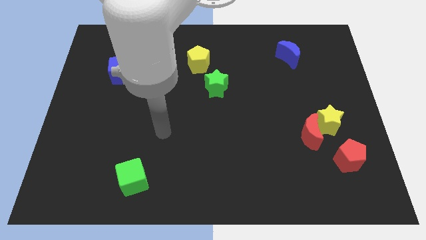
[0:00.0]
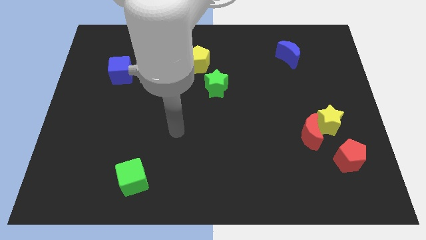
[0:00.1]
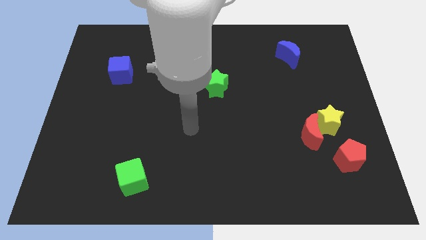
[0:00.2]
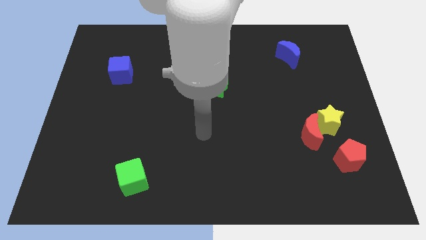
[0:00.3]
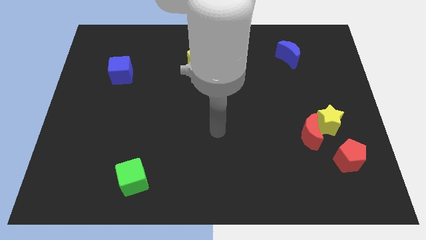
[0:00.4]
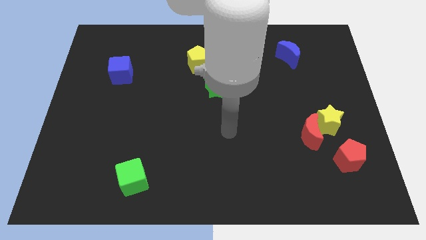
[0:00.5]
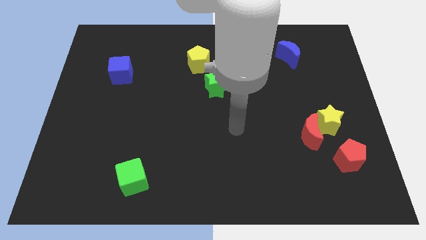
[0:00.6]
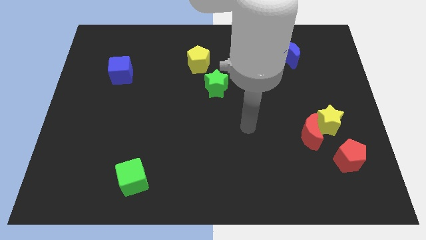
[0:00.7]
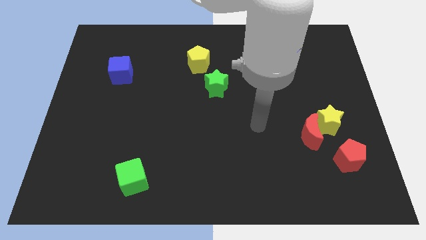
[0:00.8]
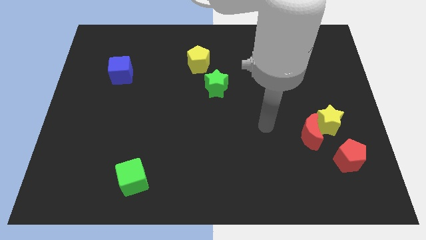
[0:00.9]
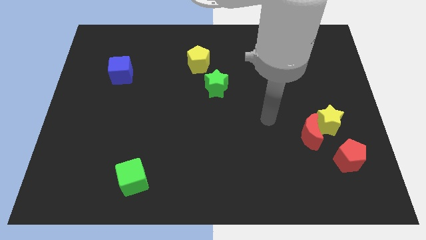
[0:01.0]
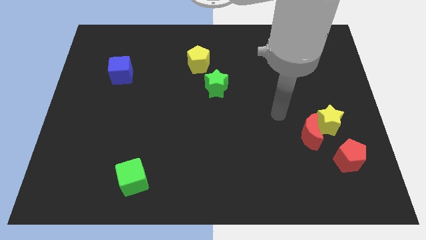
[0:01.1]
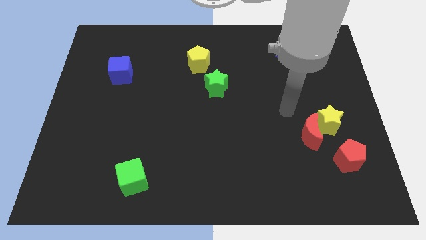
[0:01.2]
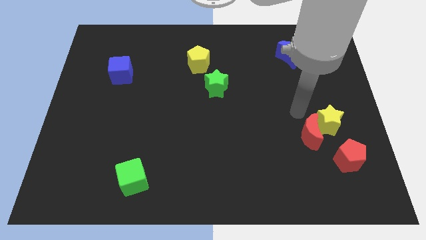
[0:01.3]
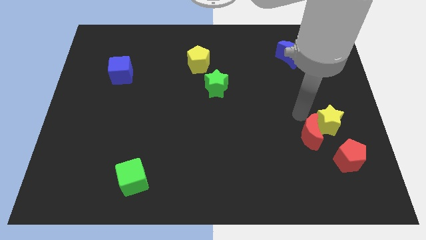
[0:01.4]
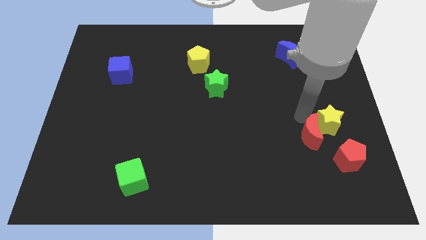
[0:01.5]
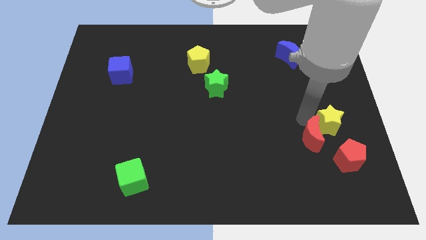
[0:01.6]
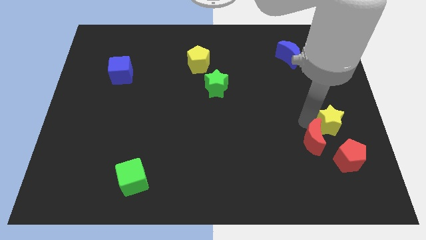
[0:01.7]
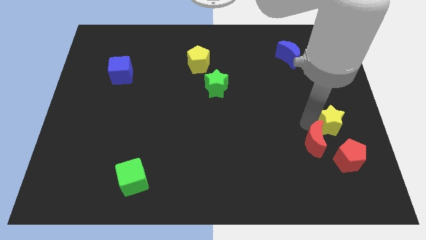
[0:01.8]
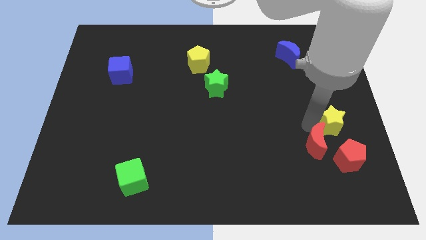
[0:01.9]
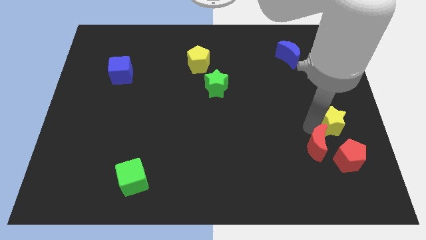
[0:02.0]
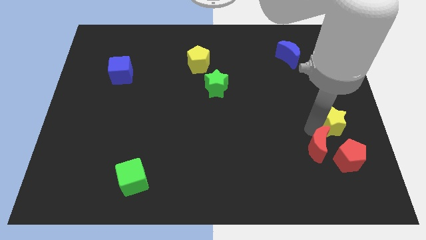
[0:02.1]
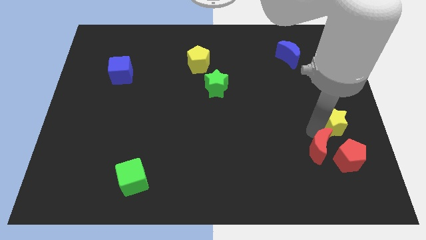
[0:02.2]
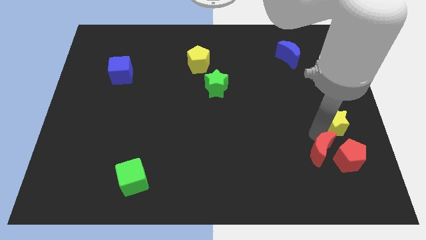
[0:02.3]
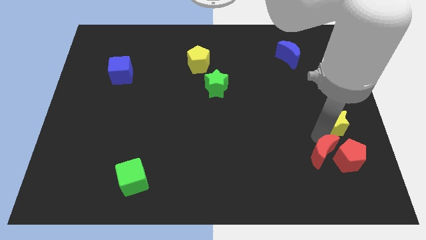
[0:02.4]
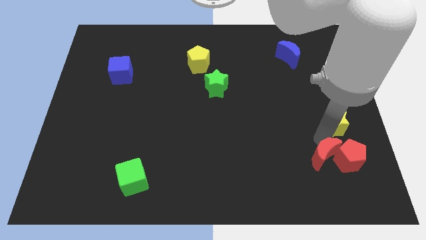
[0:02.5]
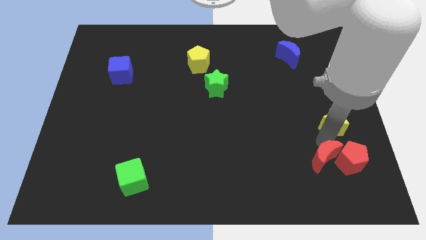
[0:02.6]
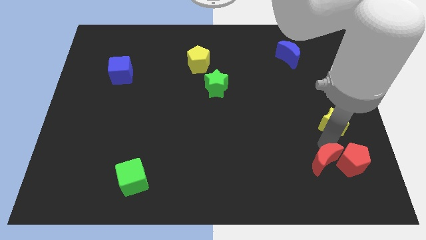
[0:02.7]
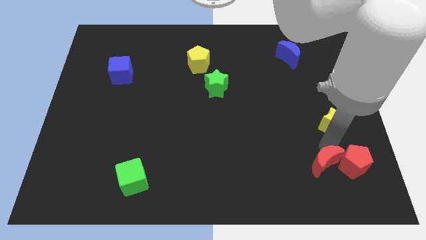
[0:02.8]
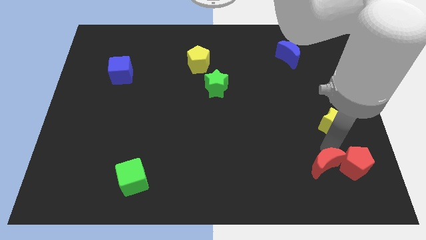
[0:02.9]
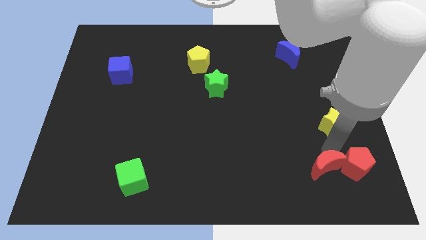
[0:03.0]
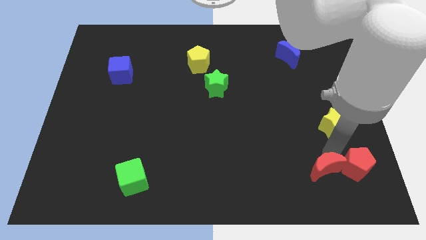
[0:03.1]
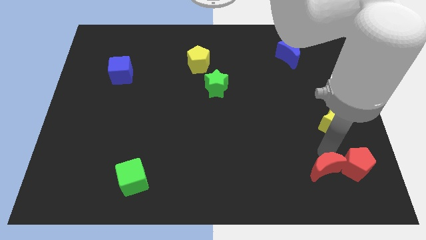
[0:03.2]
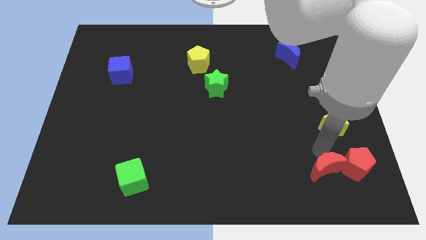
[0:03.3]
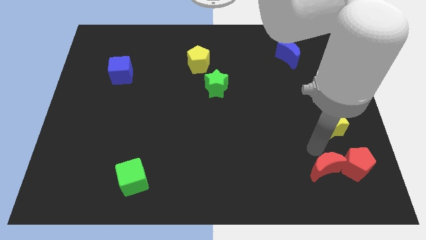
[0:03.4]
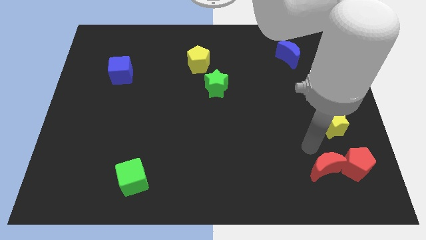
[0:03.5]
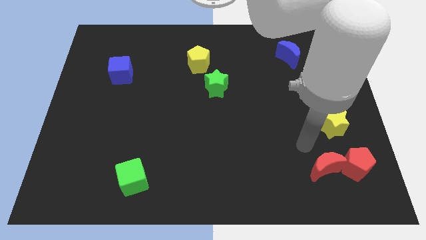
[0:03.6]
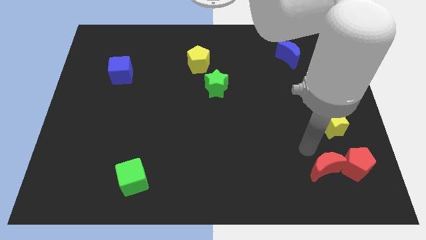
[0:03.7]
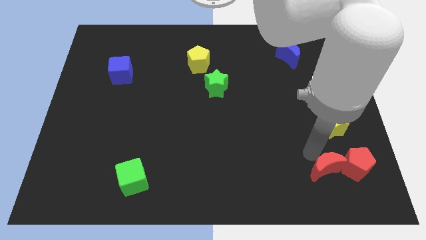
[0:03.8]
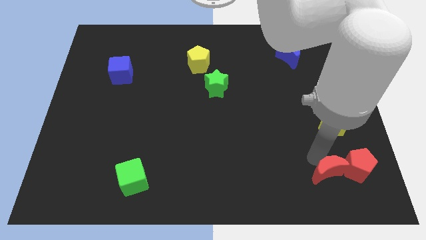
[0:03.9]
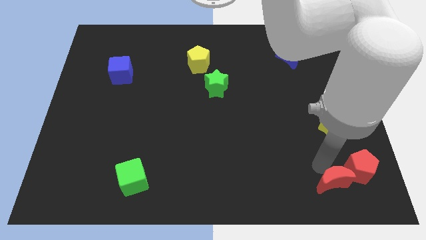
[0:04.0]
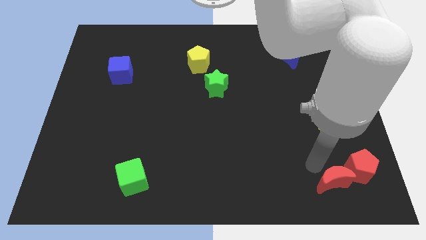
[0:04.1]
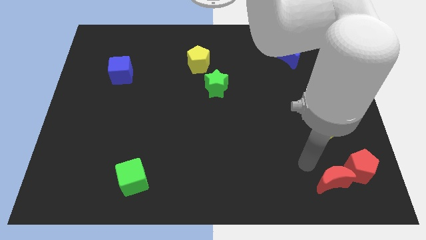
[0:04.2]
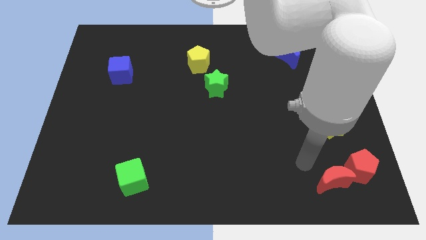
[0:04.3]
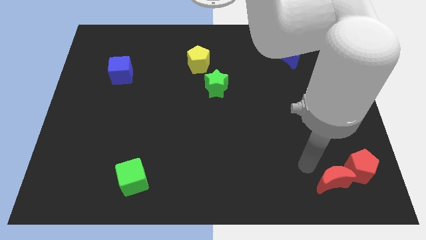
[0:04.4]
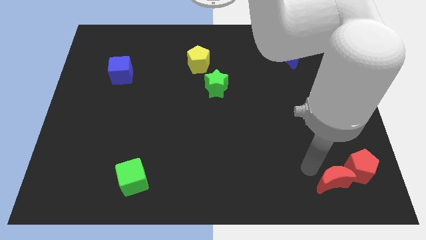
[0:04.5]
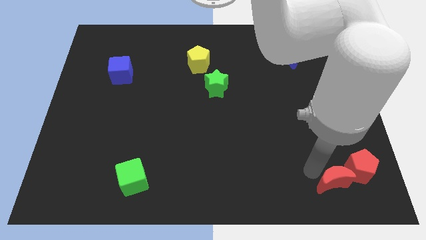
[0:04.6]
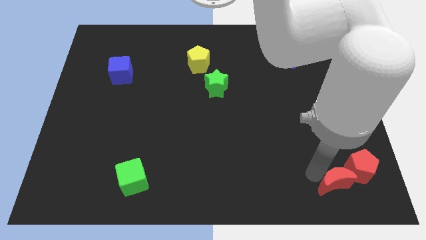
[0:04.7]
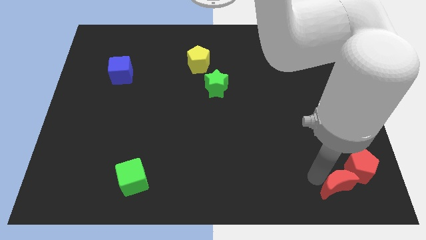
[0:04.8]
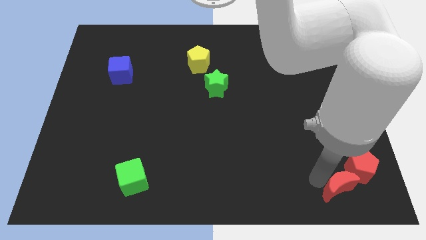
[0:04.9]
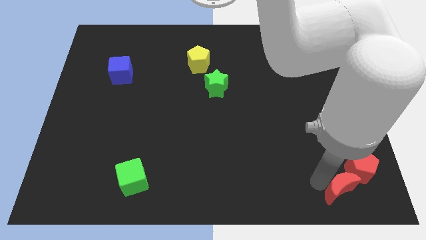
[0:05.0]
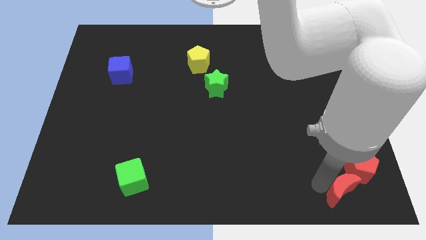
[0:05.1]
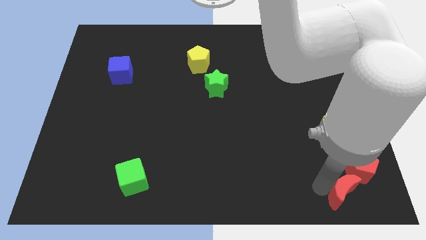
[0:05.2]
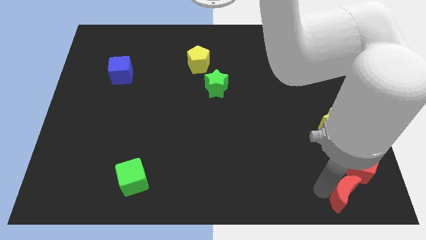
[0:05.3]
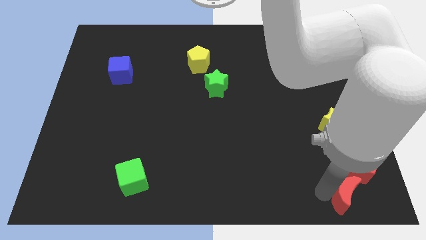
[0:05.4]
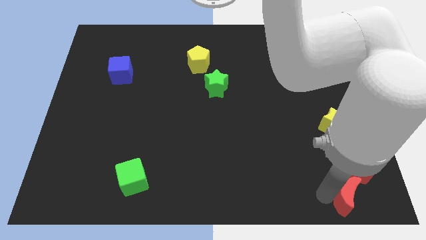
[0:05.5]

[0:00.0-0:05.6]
slide the red moon to the bottom right corner

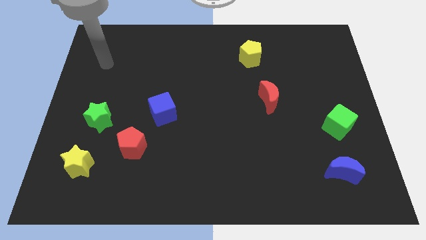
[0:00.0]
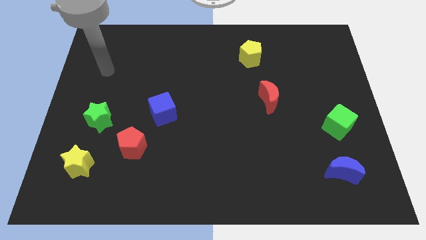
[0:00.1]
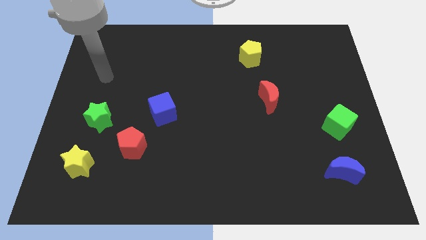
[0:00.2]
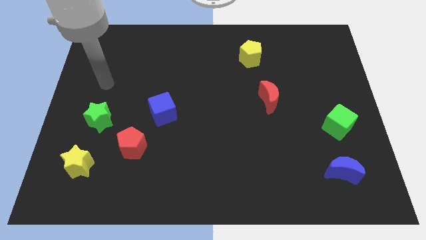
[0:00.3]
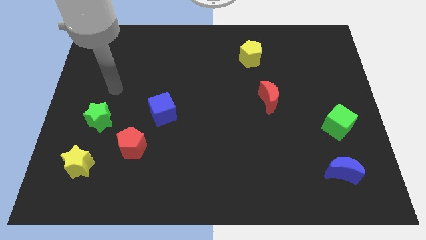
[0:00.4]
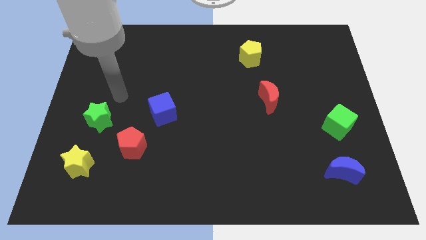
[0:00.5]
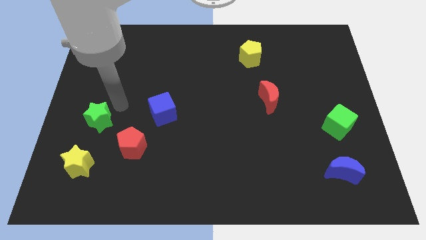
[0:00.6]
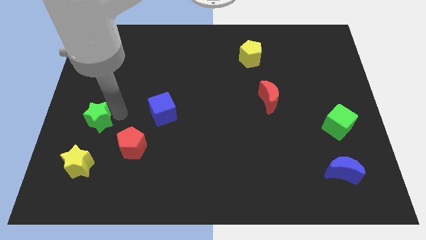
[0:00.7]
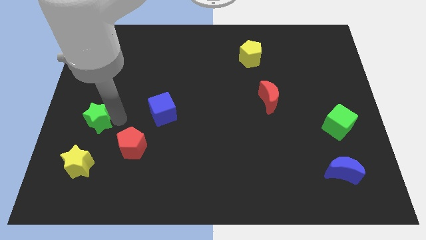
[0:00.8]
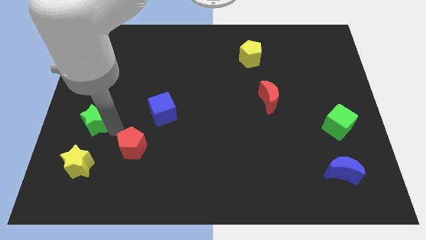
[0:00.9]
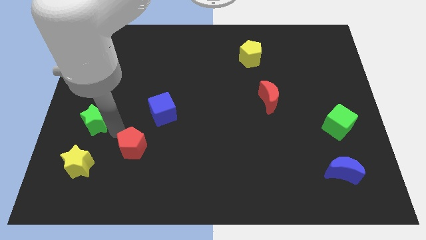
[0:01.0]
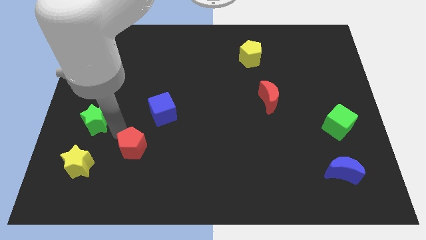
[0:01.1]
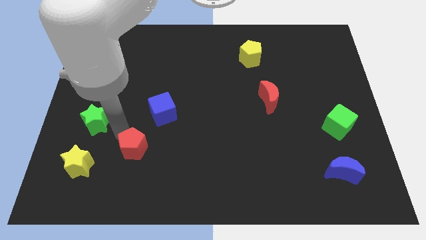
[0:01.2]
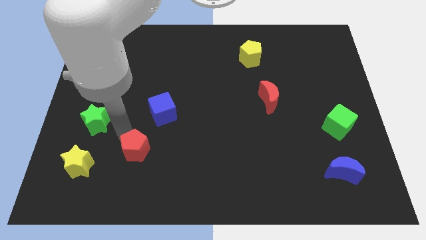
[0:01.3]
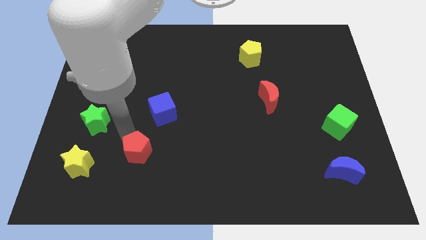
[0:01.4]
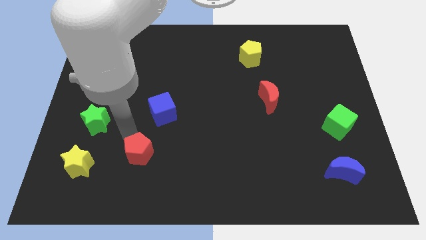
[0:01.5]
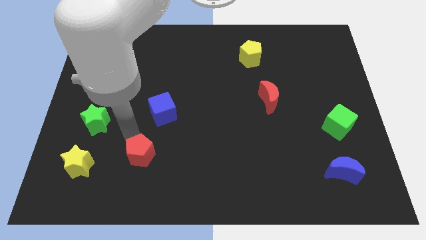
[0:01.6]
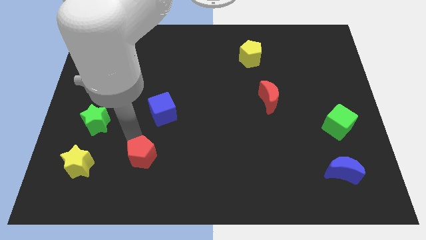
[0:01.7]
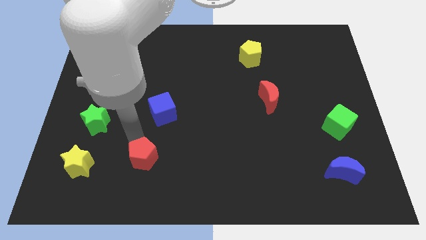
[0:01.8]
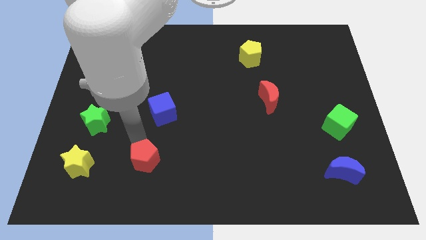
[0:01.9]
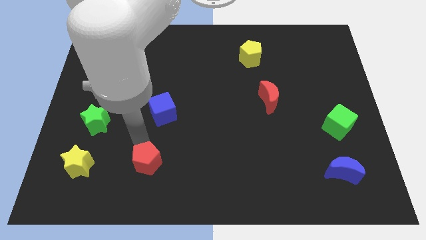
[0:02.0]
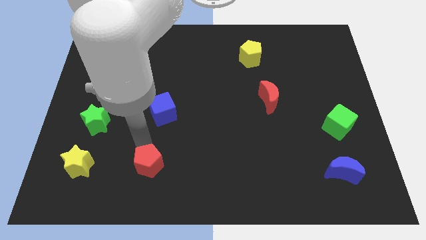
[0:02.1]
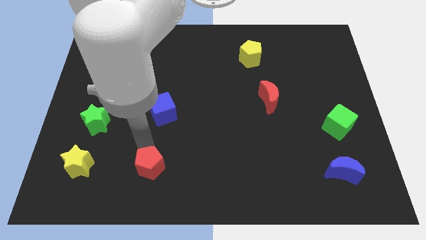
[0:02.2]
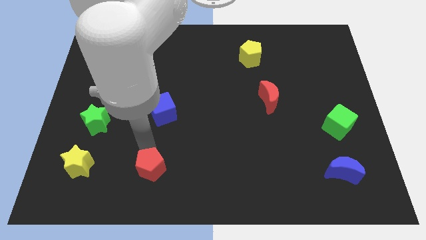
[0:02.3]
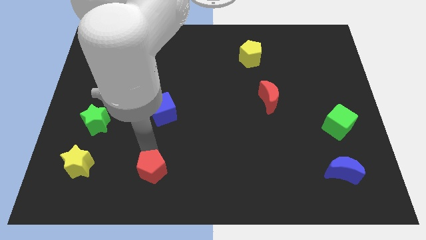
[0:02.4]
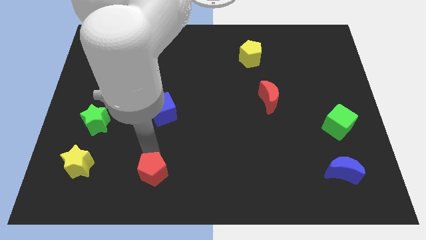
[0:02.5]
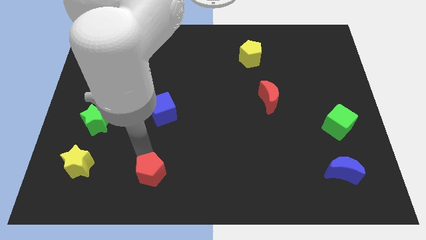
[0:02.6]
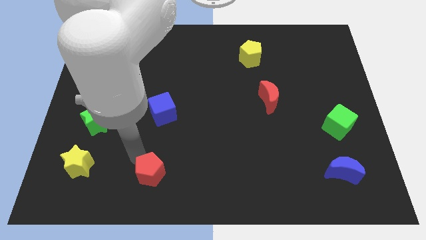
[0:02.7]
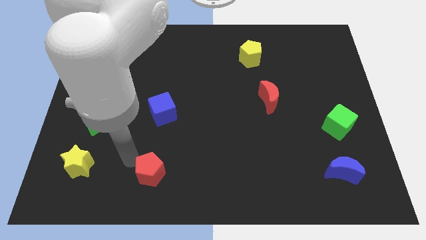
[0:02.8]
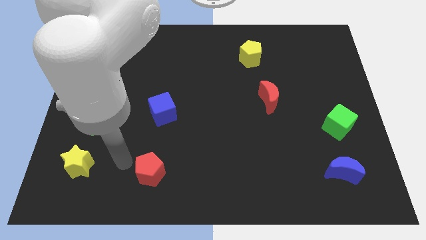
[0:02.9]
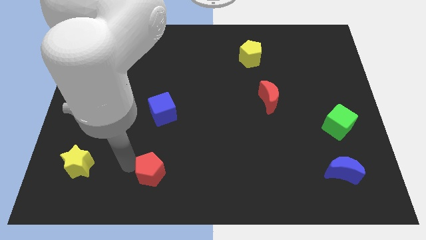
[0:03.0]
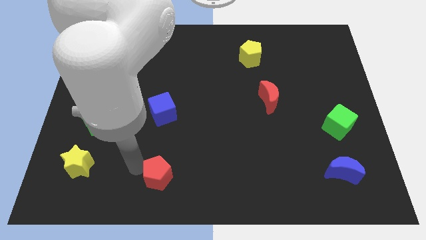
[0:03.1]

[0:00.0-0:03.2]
put the red pentagon to the bottom
